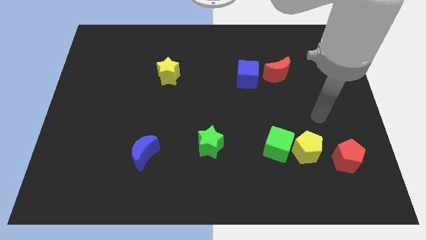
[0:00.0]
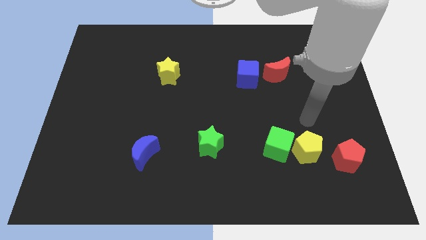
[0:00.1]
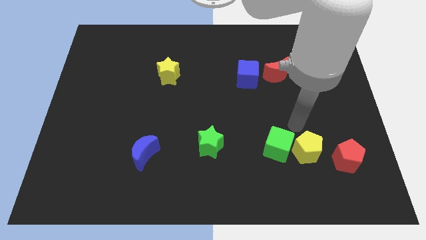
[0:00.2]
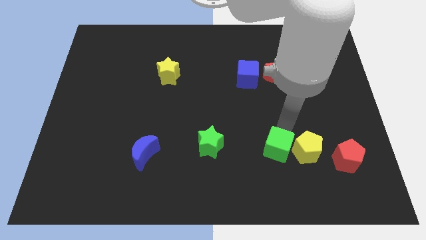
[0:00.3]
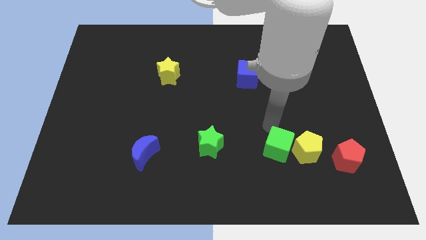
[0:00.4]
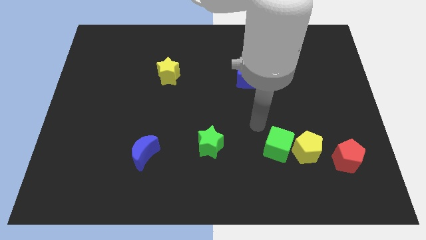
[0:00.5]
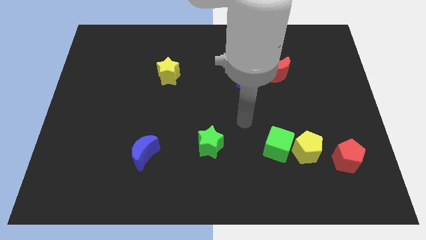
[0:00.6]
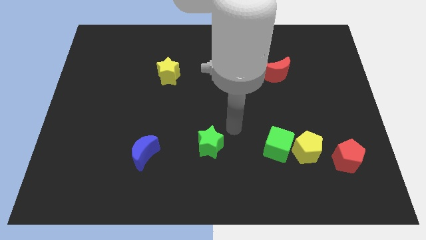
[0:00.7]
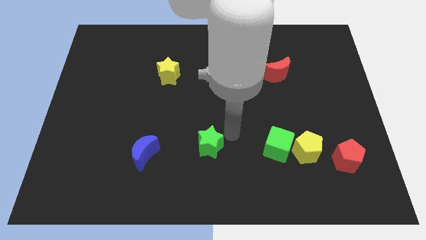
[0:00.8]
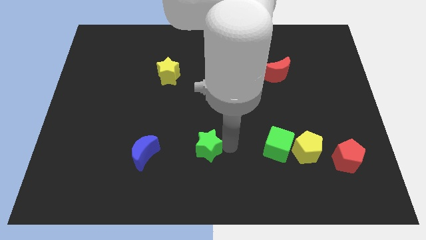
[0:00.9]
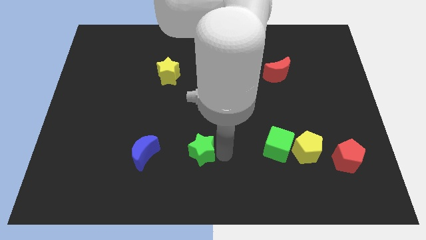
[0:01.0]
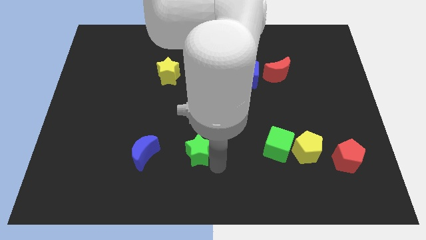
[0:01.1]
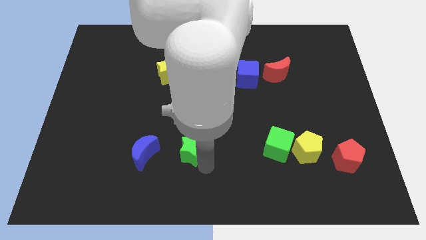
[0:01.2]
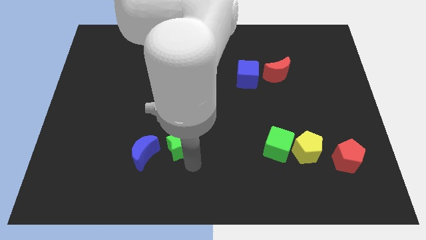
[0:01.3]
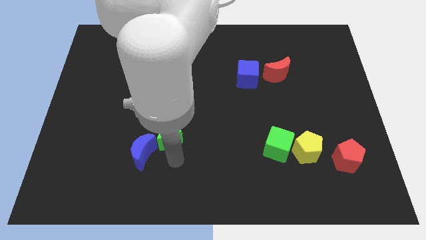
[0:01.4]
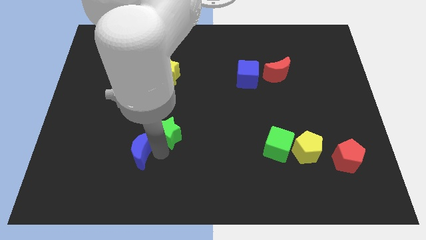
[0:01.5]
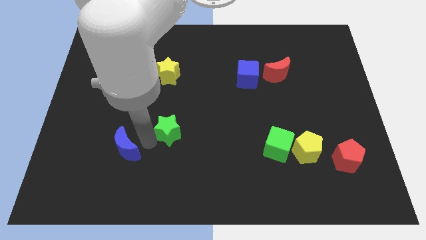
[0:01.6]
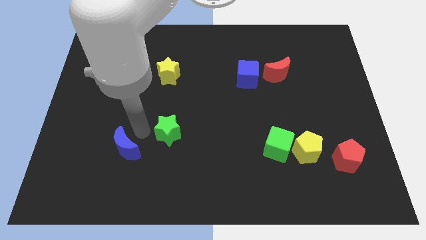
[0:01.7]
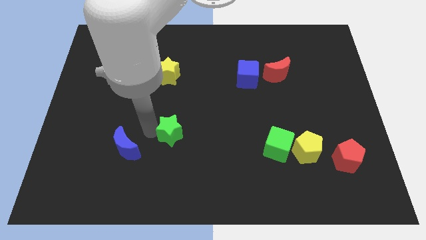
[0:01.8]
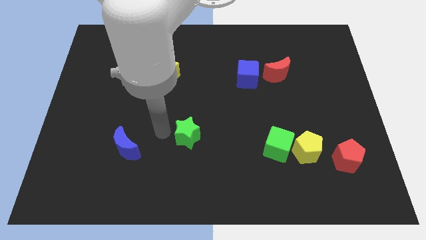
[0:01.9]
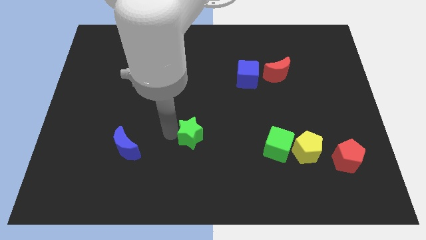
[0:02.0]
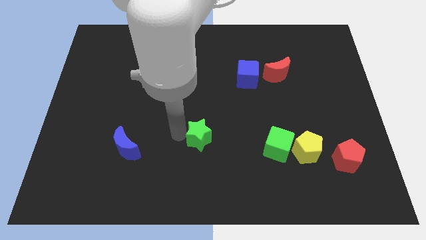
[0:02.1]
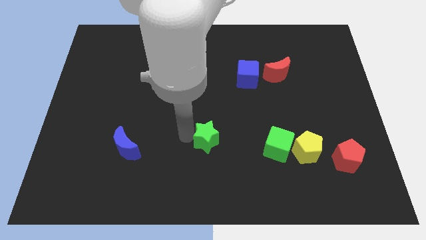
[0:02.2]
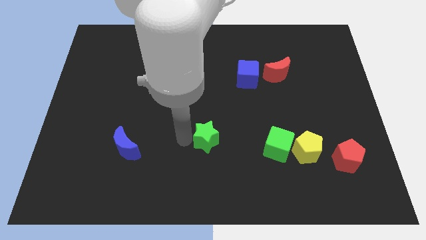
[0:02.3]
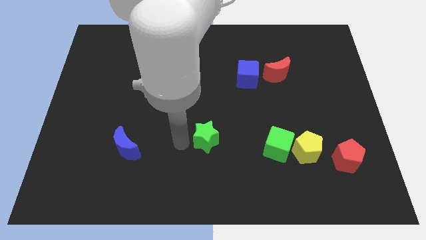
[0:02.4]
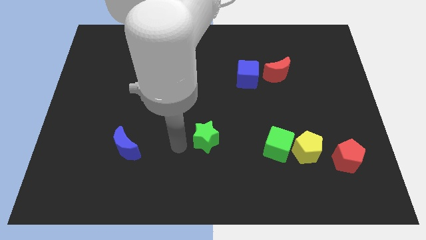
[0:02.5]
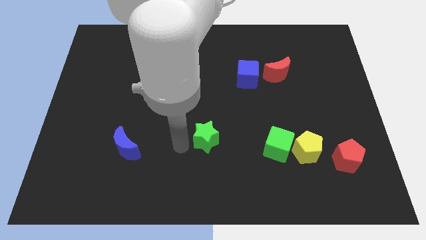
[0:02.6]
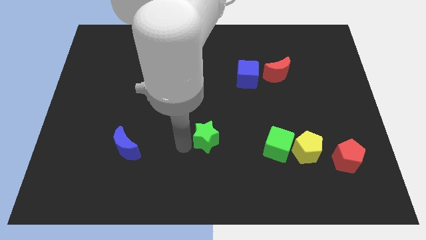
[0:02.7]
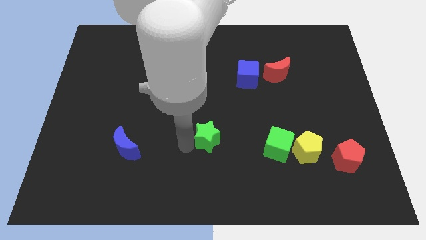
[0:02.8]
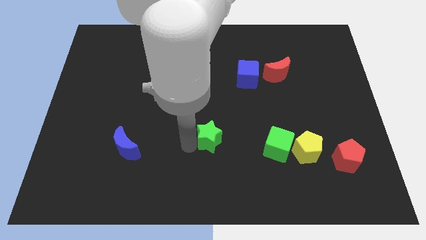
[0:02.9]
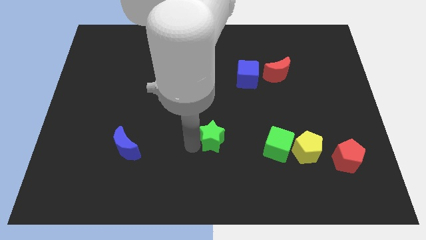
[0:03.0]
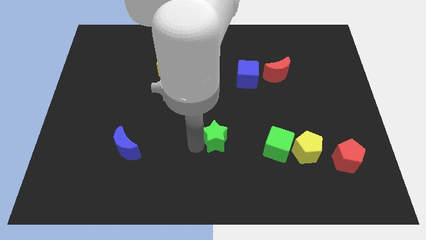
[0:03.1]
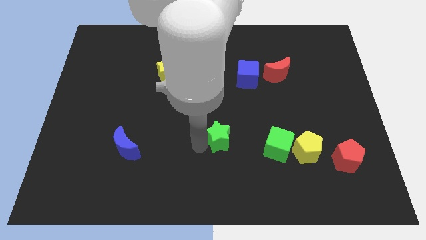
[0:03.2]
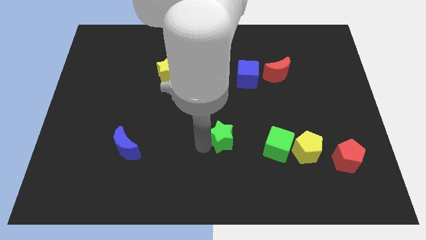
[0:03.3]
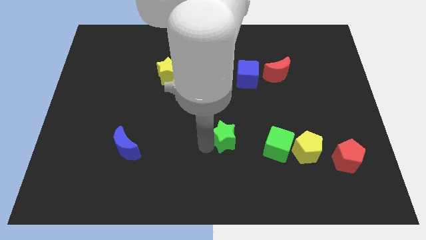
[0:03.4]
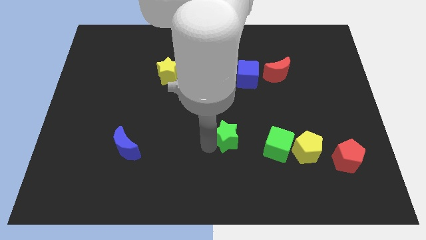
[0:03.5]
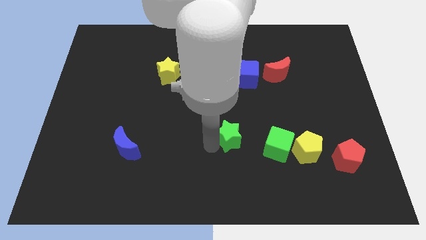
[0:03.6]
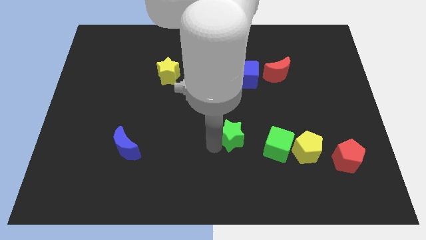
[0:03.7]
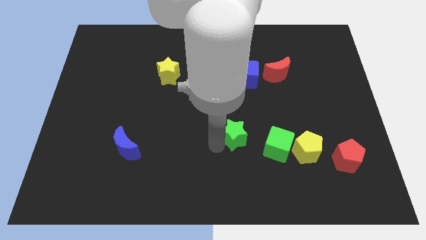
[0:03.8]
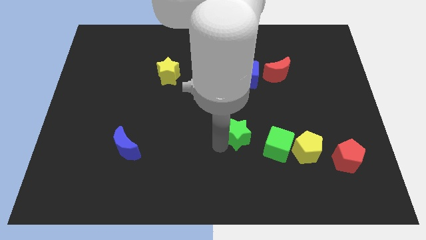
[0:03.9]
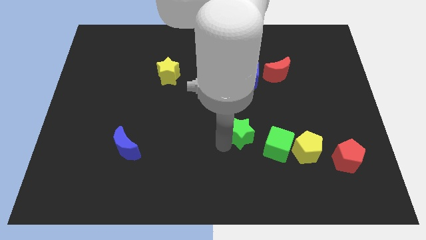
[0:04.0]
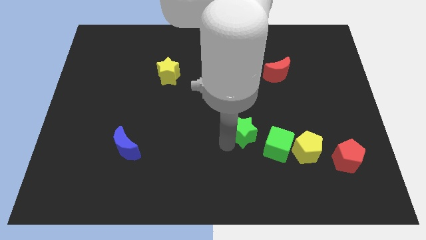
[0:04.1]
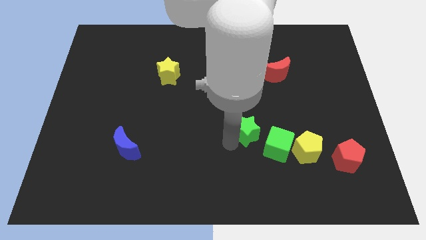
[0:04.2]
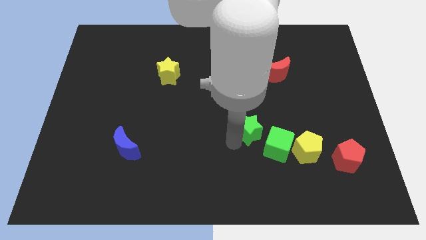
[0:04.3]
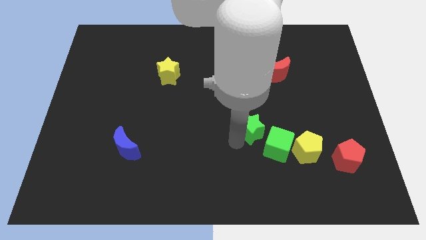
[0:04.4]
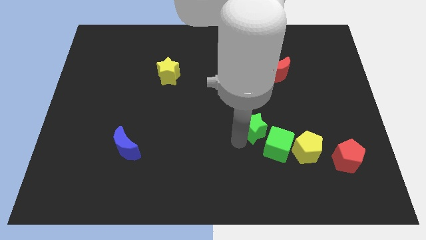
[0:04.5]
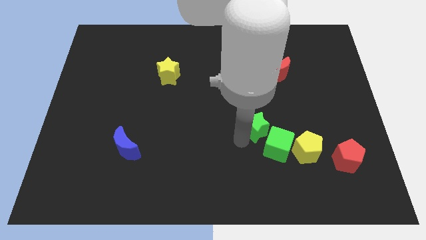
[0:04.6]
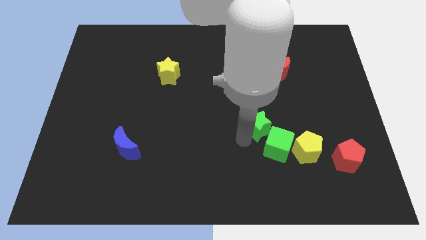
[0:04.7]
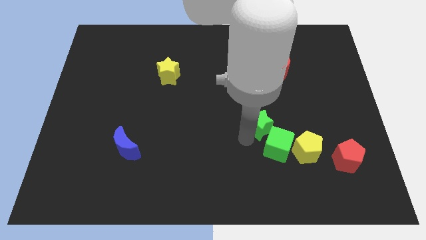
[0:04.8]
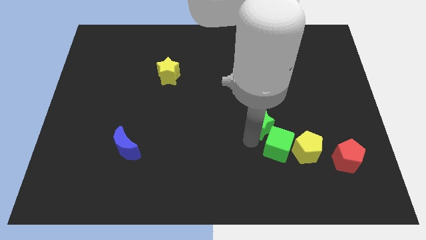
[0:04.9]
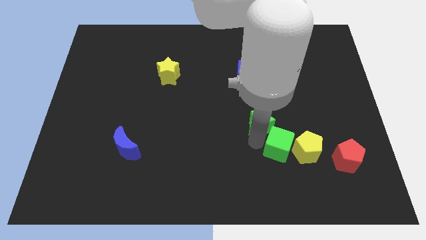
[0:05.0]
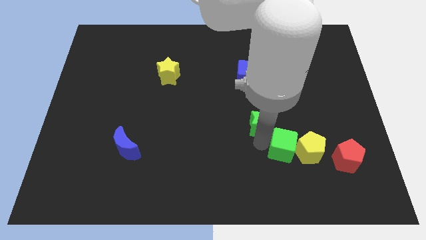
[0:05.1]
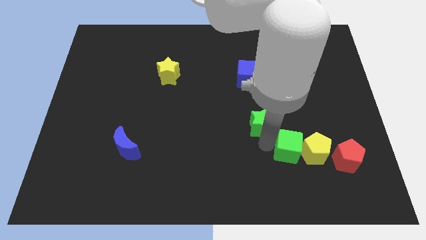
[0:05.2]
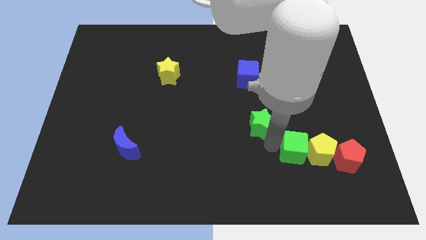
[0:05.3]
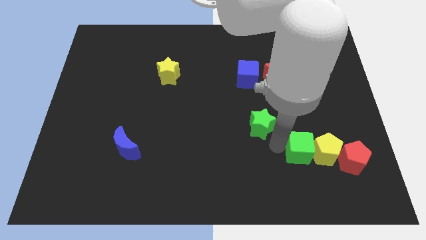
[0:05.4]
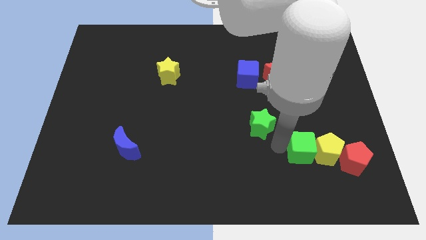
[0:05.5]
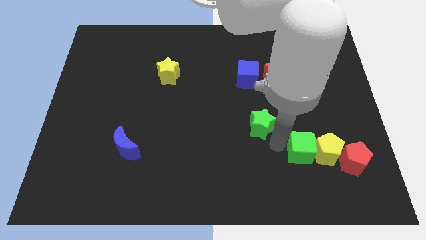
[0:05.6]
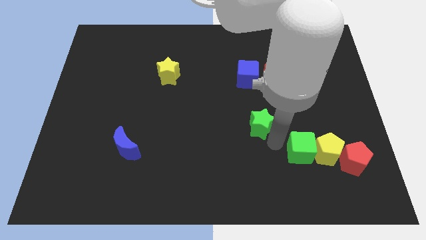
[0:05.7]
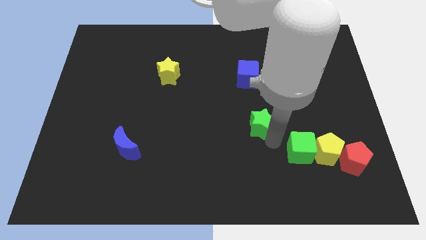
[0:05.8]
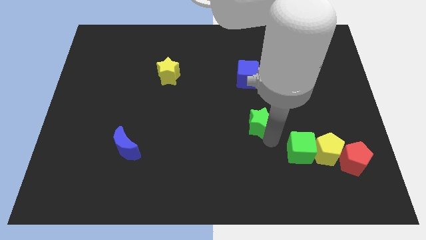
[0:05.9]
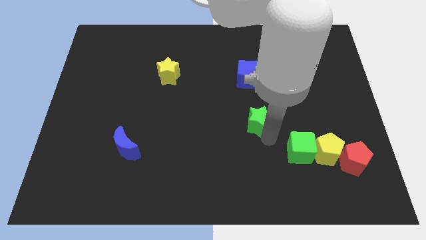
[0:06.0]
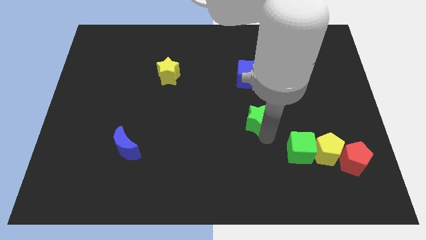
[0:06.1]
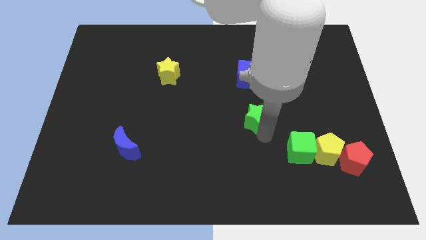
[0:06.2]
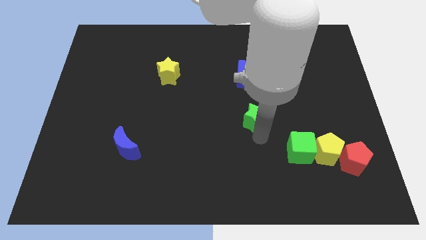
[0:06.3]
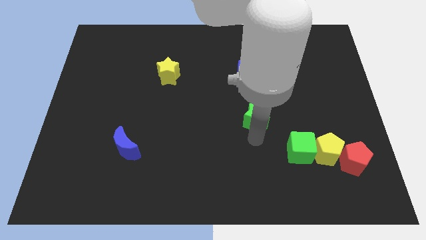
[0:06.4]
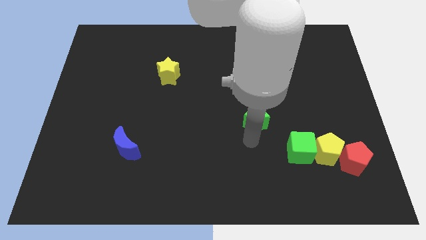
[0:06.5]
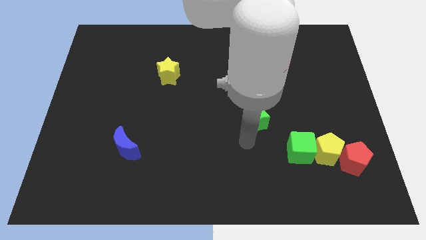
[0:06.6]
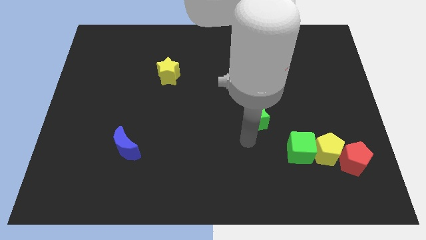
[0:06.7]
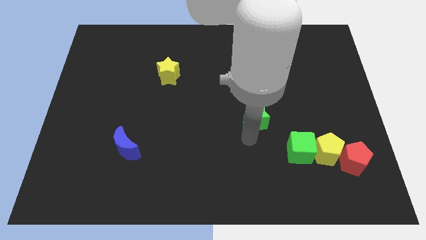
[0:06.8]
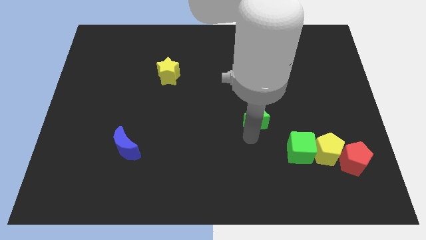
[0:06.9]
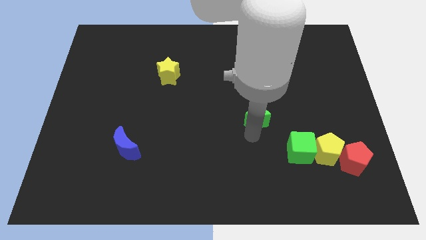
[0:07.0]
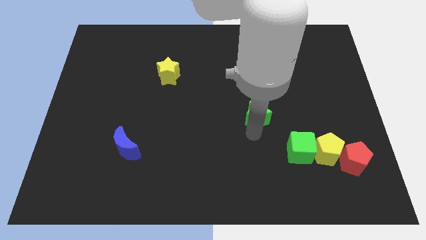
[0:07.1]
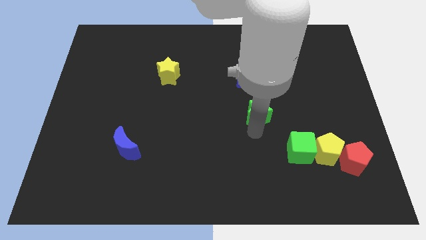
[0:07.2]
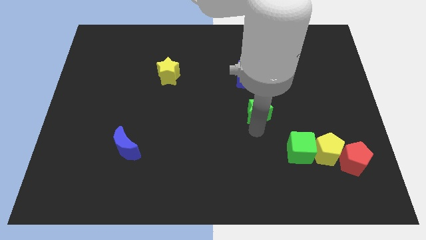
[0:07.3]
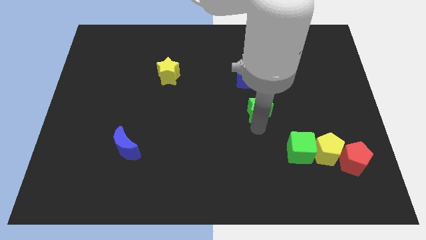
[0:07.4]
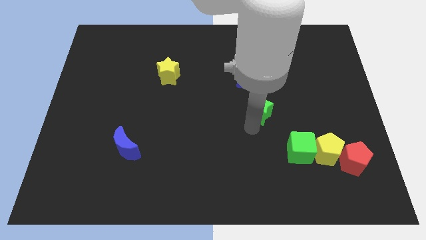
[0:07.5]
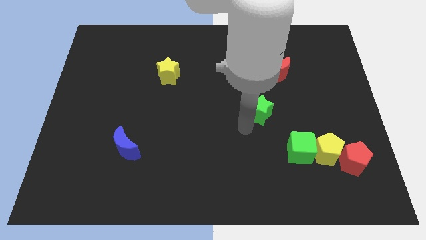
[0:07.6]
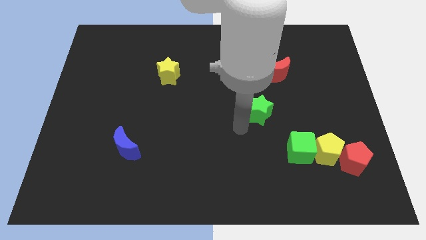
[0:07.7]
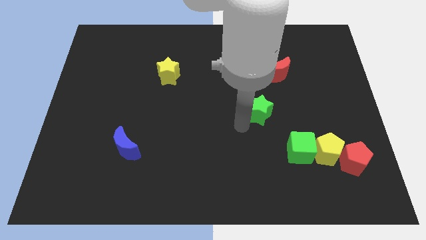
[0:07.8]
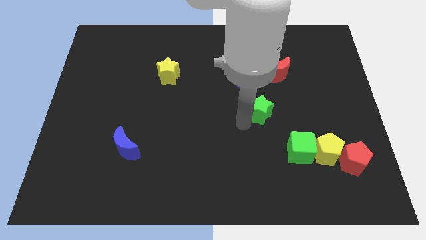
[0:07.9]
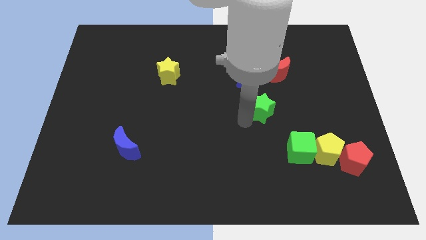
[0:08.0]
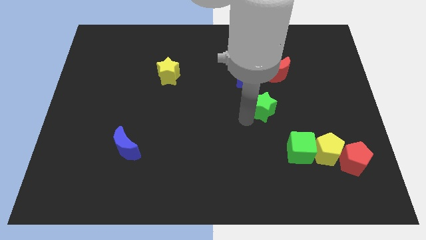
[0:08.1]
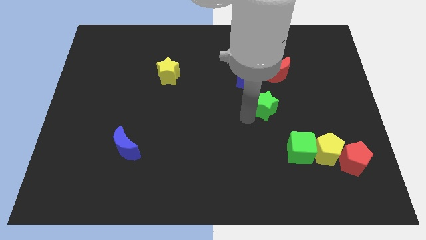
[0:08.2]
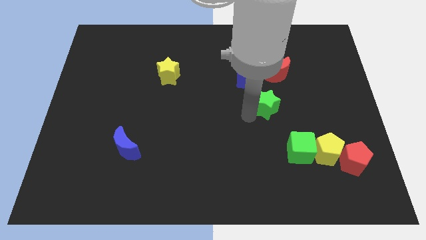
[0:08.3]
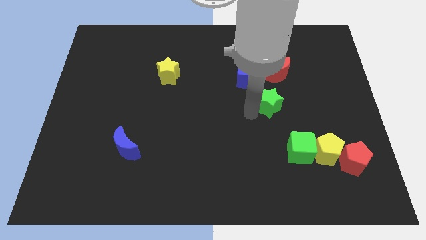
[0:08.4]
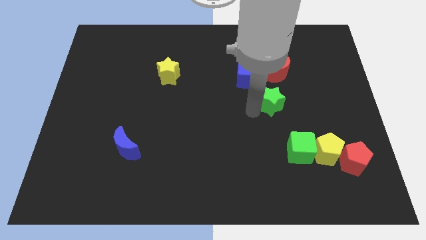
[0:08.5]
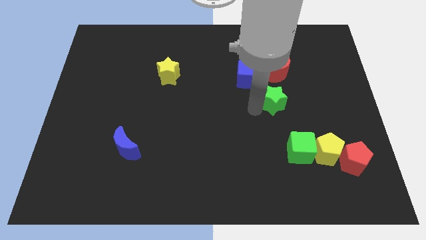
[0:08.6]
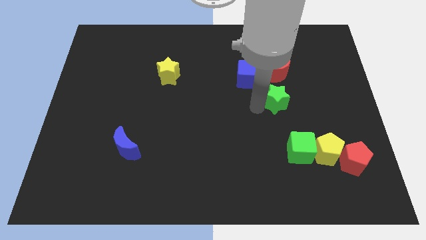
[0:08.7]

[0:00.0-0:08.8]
push the green star diagonally upwards and to the right
